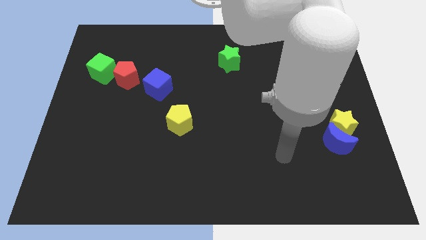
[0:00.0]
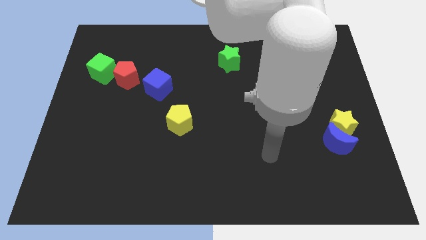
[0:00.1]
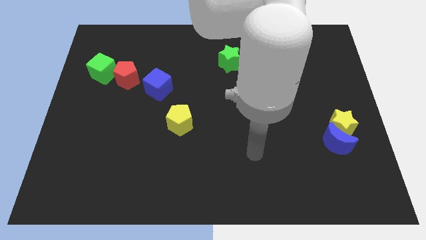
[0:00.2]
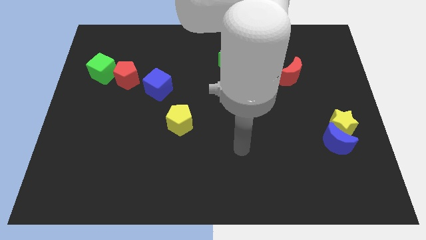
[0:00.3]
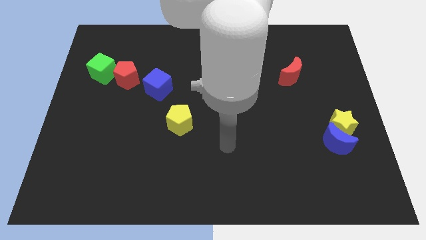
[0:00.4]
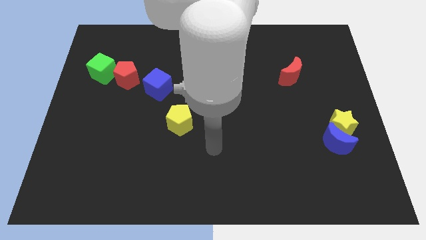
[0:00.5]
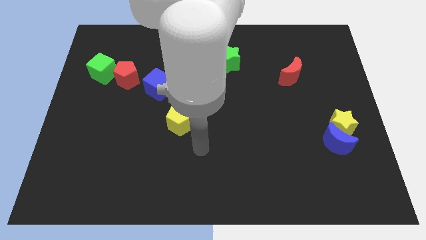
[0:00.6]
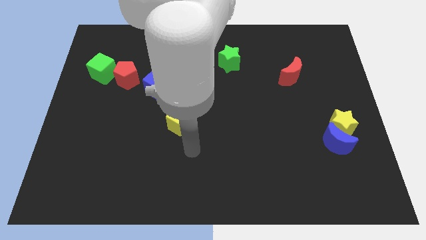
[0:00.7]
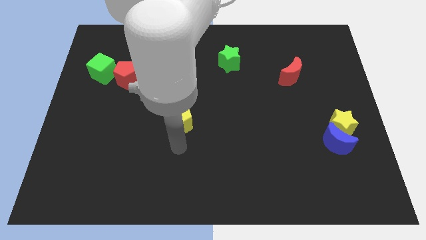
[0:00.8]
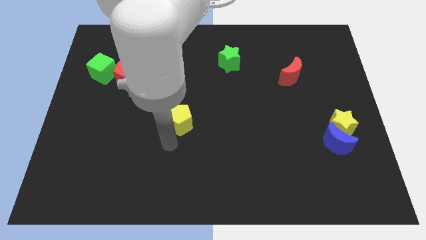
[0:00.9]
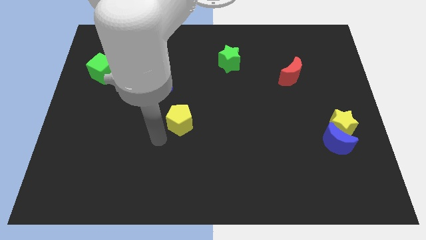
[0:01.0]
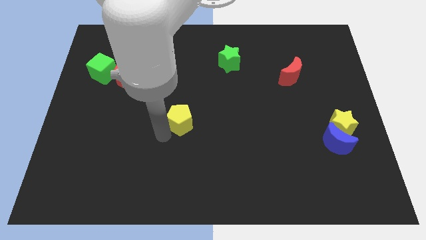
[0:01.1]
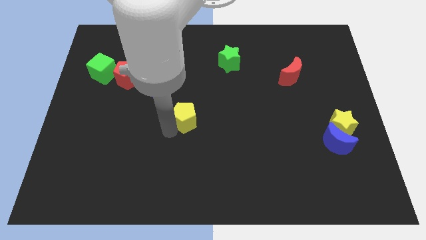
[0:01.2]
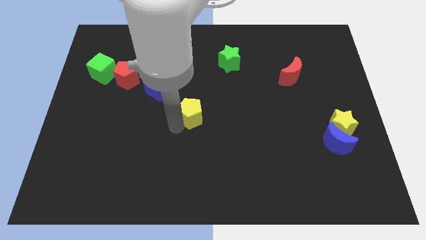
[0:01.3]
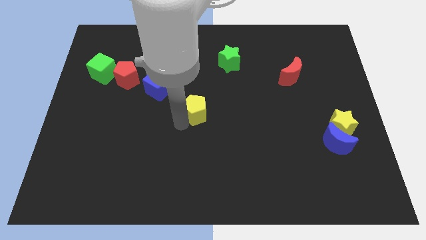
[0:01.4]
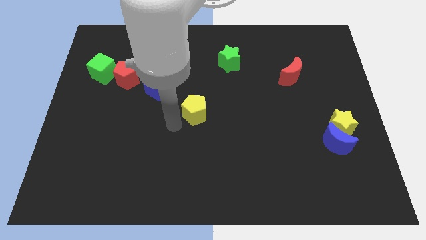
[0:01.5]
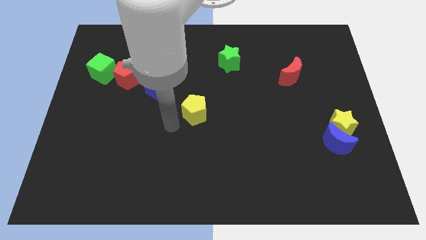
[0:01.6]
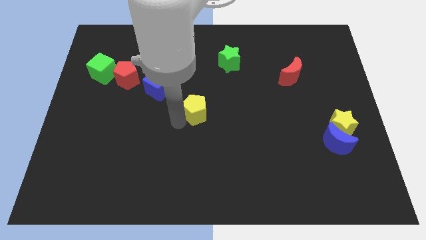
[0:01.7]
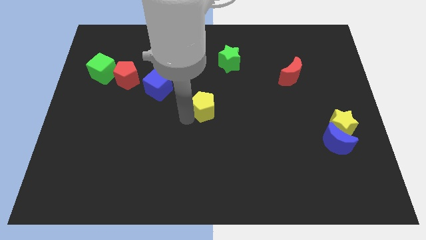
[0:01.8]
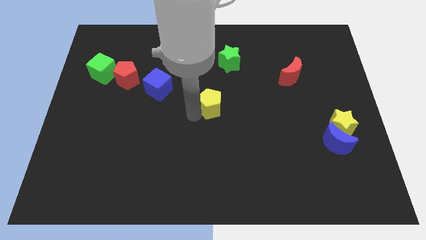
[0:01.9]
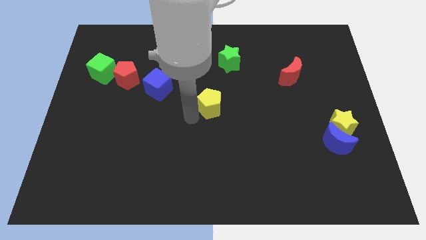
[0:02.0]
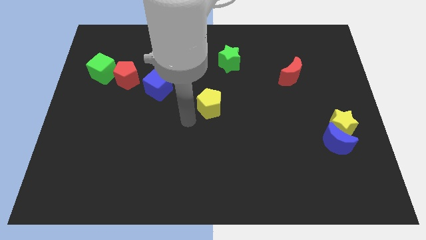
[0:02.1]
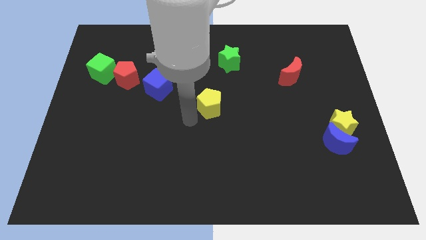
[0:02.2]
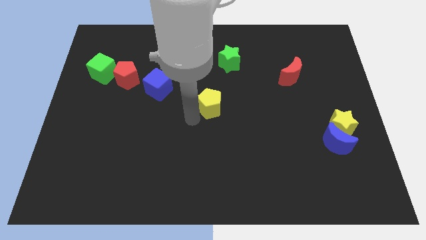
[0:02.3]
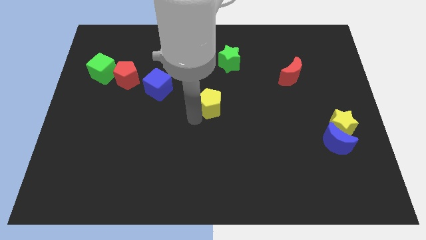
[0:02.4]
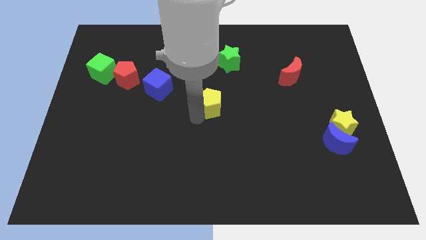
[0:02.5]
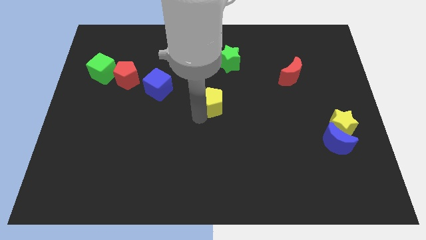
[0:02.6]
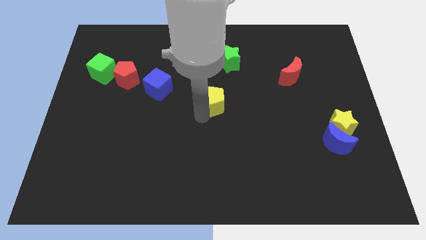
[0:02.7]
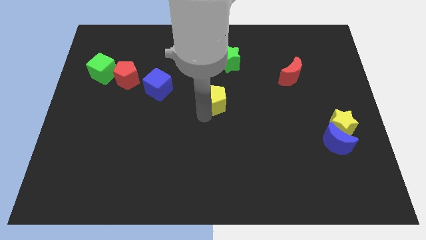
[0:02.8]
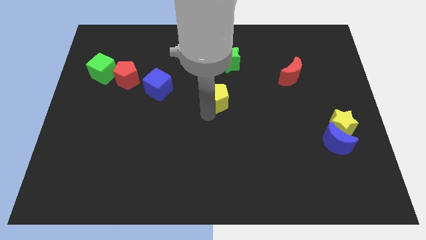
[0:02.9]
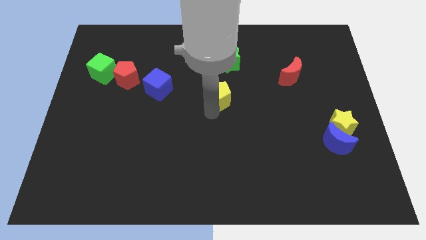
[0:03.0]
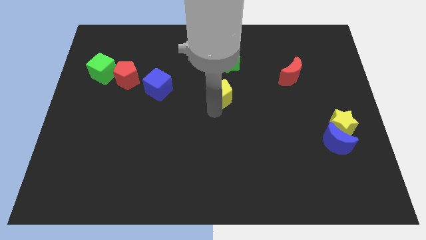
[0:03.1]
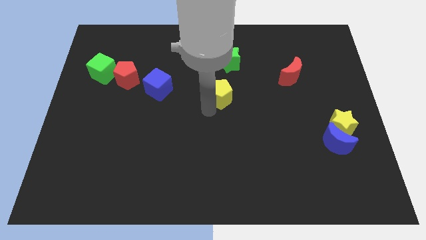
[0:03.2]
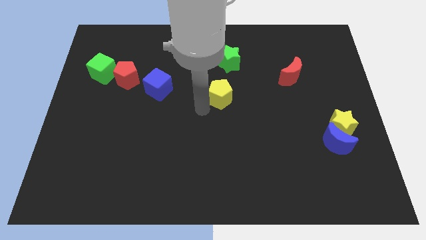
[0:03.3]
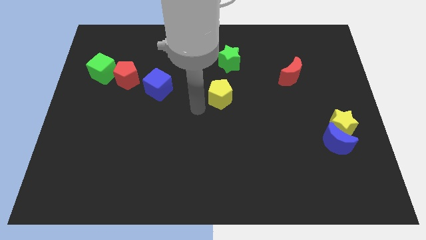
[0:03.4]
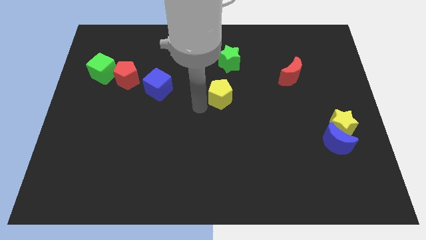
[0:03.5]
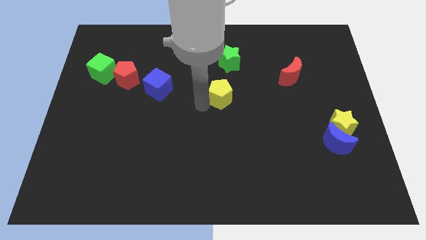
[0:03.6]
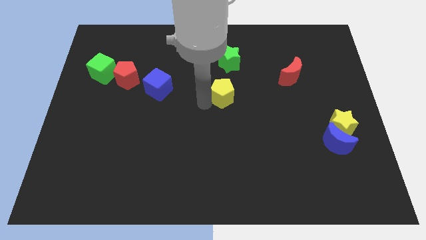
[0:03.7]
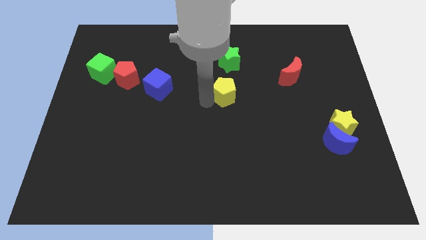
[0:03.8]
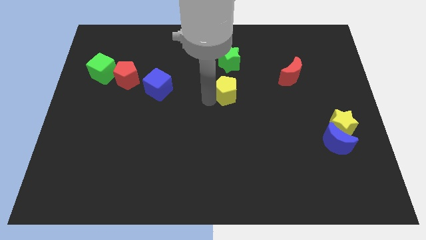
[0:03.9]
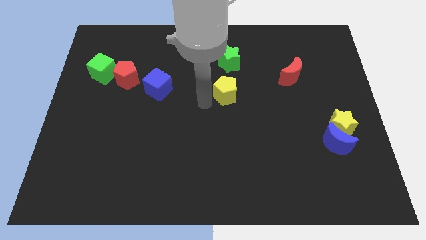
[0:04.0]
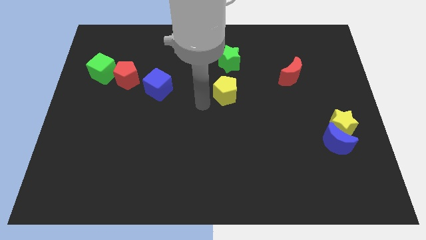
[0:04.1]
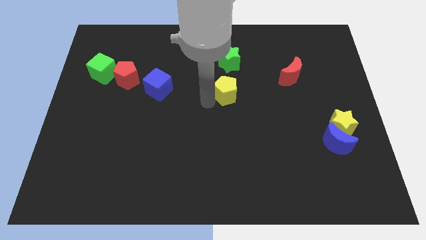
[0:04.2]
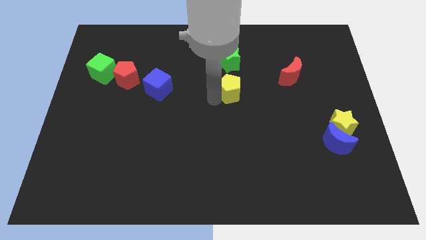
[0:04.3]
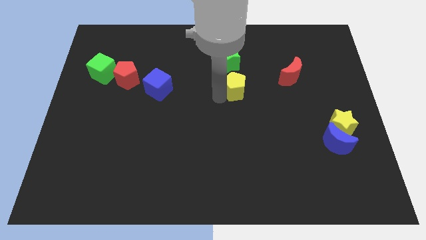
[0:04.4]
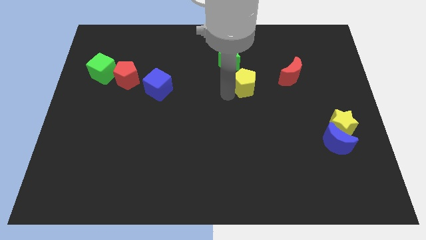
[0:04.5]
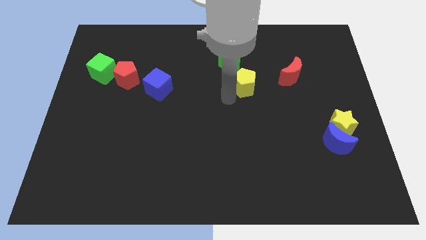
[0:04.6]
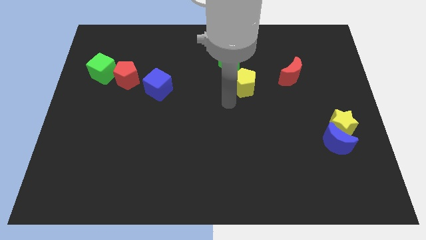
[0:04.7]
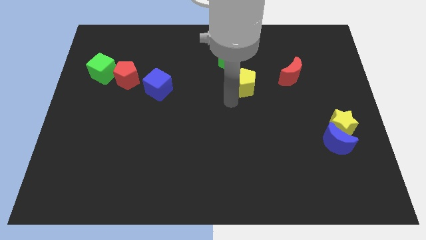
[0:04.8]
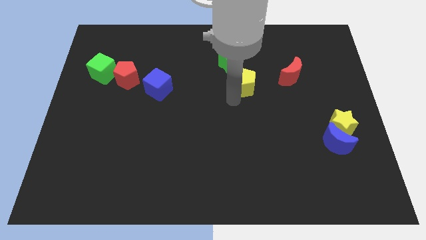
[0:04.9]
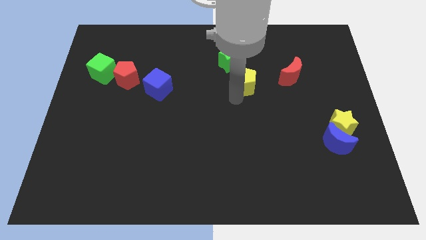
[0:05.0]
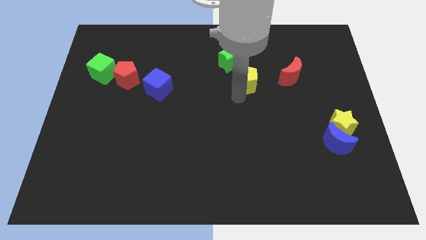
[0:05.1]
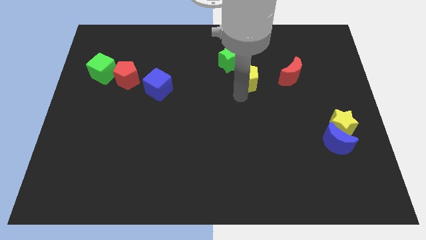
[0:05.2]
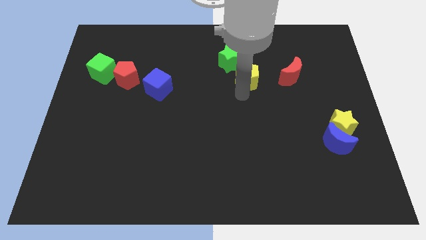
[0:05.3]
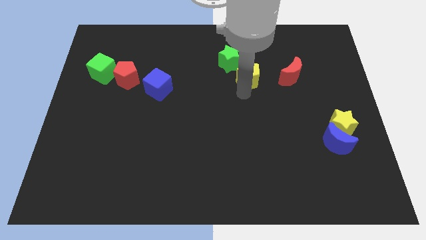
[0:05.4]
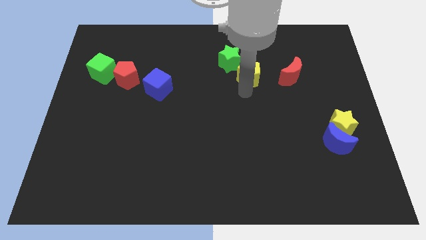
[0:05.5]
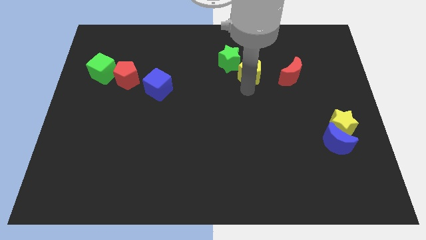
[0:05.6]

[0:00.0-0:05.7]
push the yellow pentagon just right of the green star

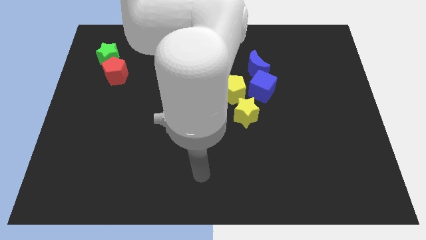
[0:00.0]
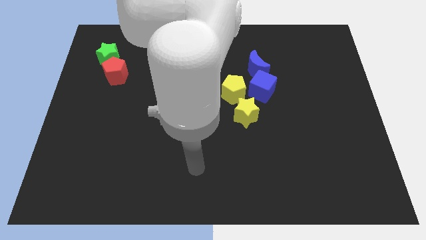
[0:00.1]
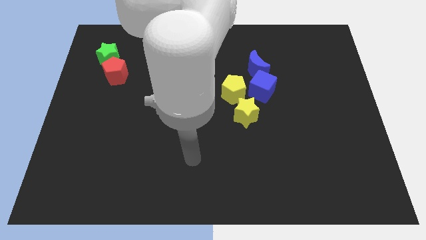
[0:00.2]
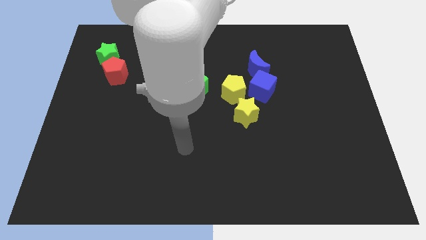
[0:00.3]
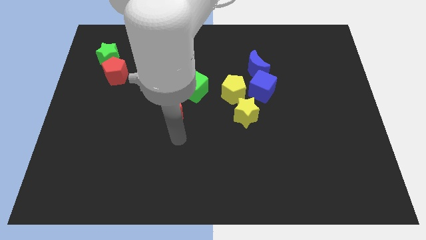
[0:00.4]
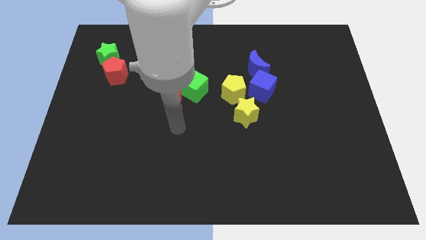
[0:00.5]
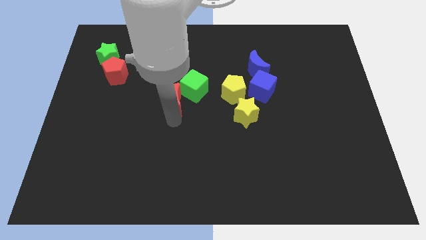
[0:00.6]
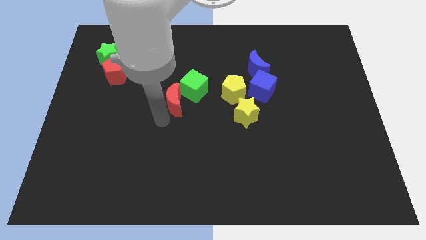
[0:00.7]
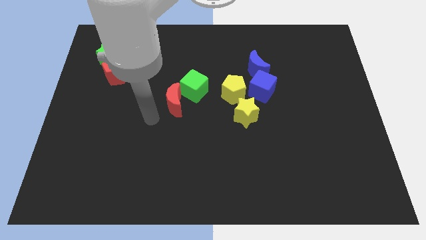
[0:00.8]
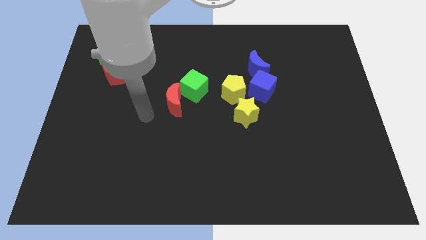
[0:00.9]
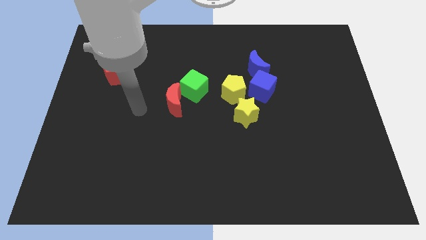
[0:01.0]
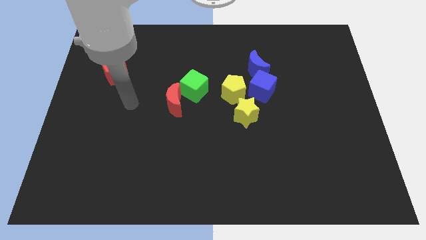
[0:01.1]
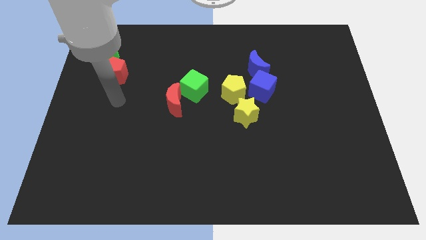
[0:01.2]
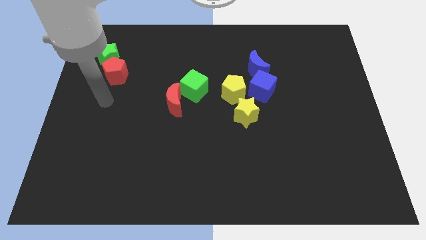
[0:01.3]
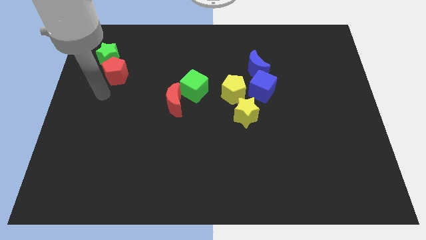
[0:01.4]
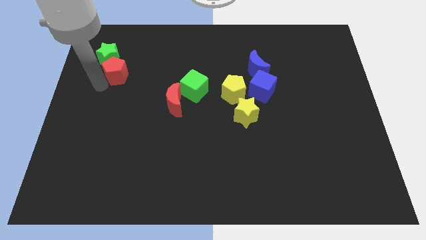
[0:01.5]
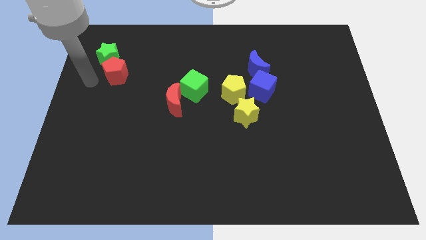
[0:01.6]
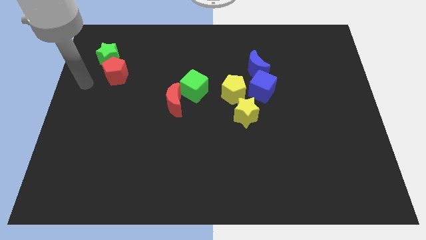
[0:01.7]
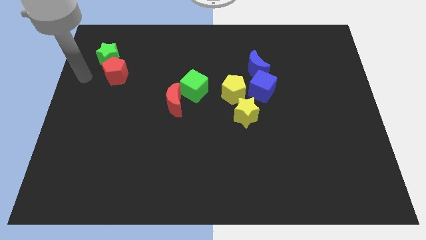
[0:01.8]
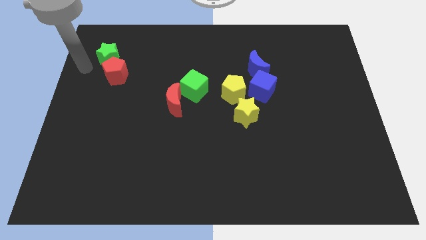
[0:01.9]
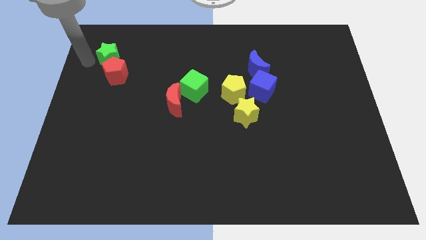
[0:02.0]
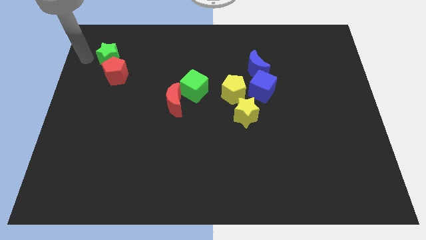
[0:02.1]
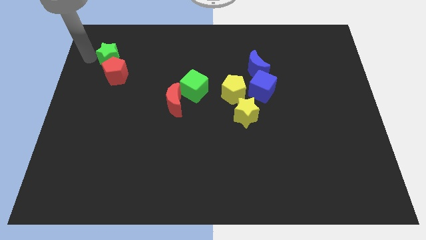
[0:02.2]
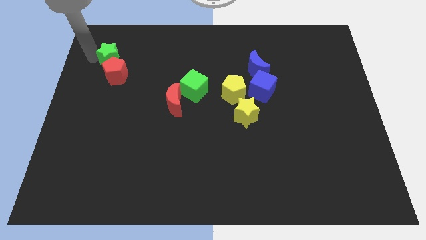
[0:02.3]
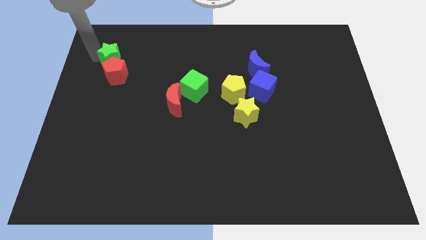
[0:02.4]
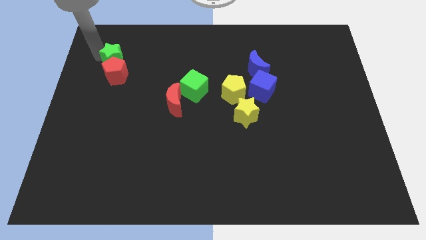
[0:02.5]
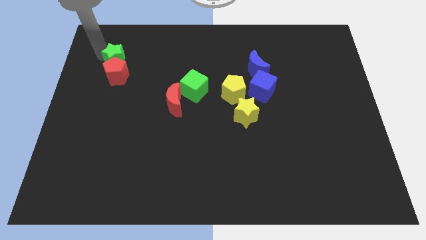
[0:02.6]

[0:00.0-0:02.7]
slide the green star diagonally up and to the right of the red pentagon
